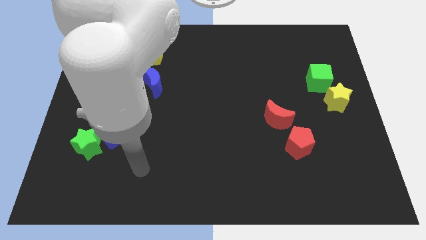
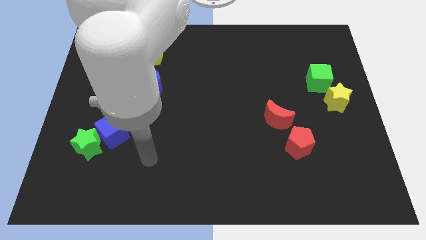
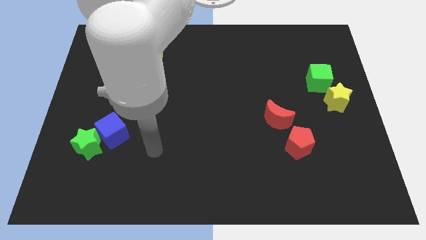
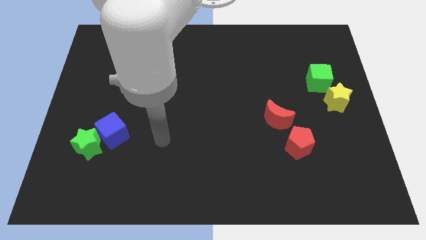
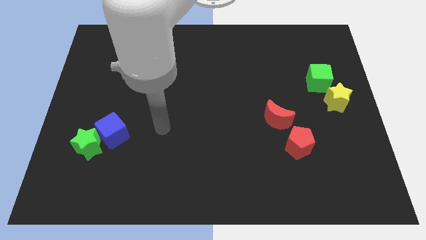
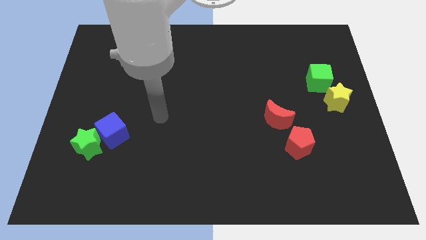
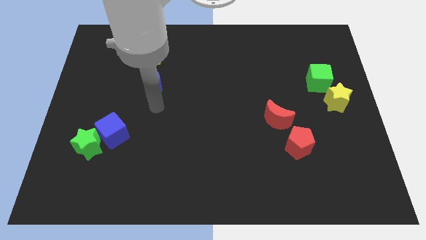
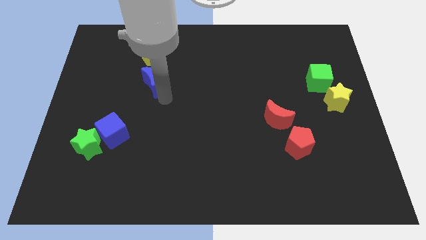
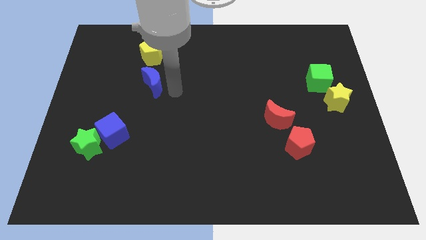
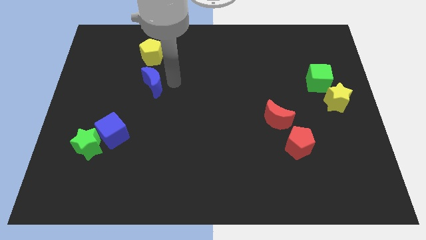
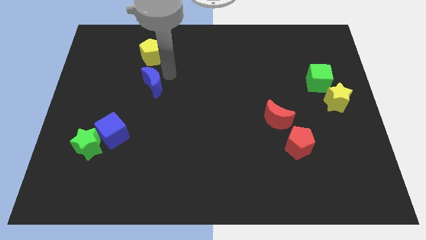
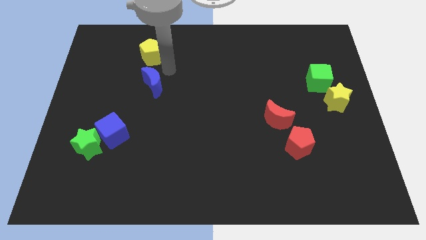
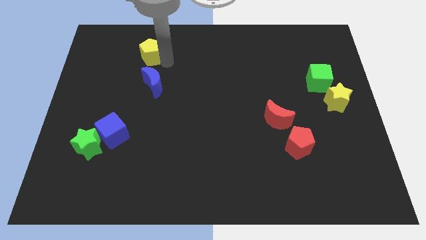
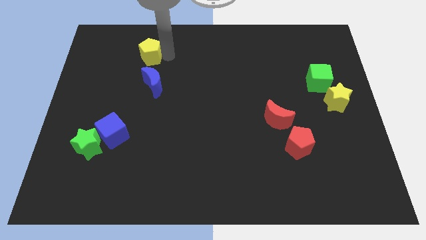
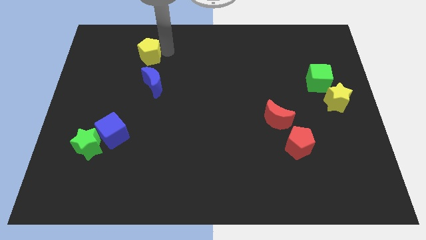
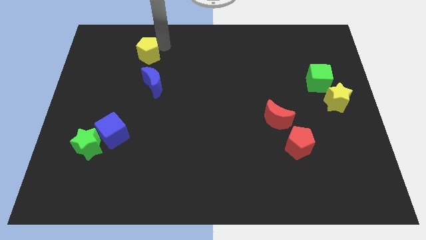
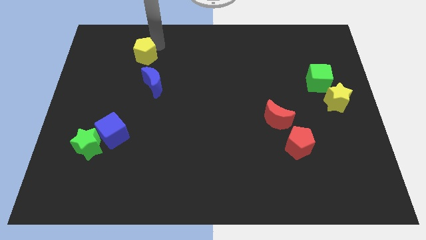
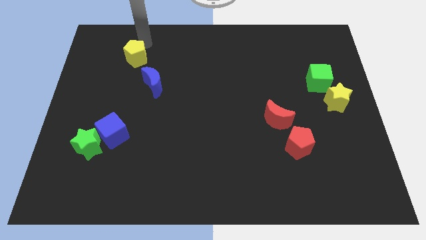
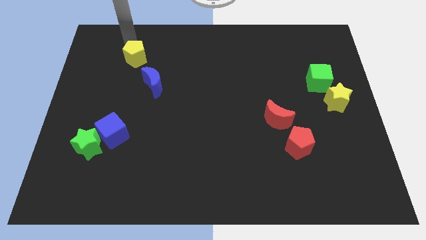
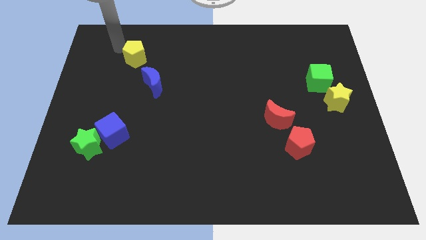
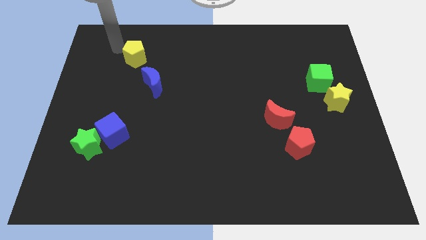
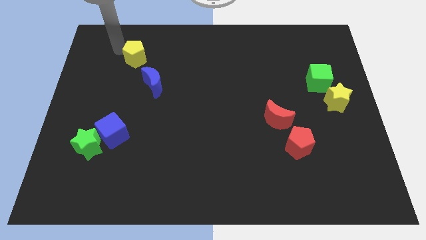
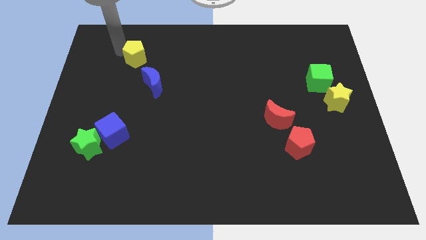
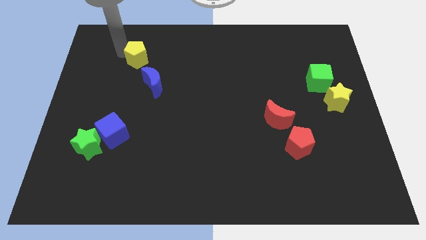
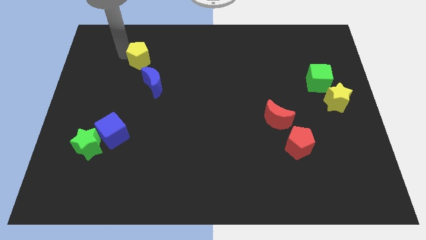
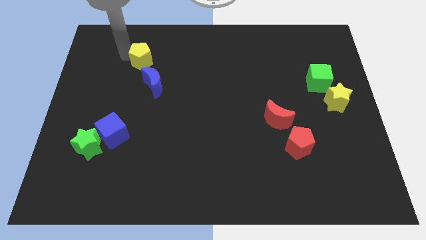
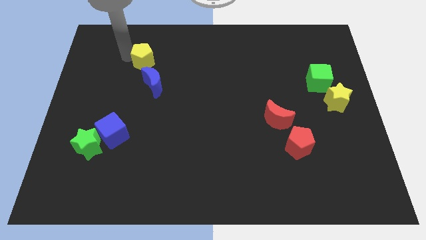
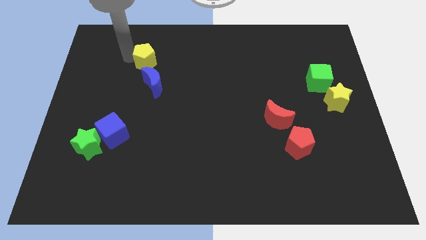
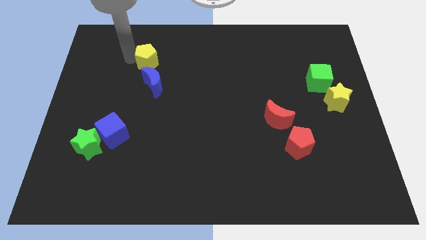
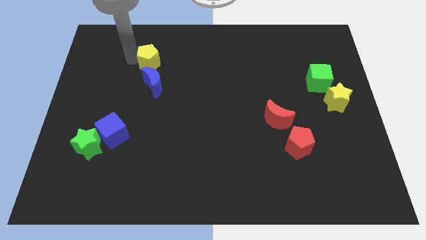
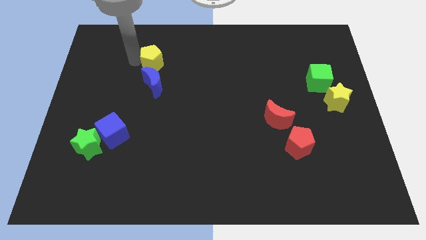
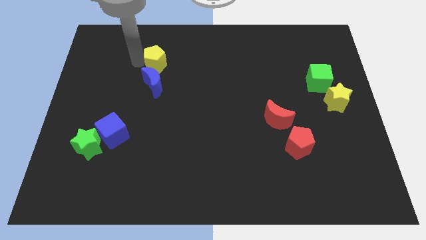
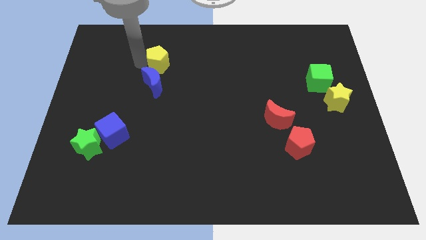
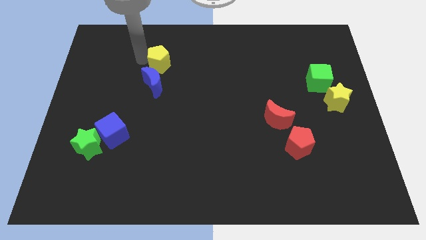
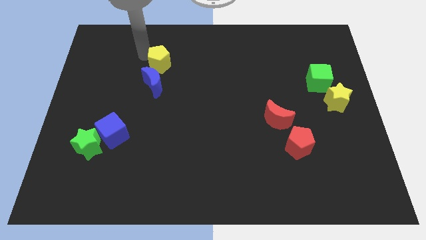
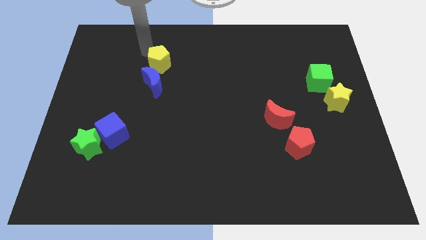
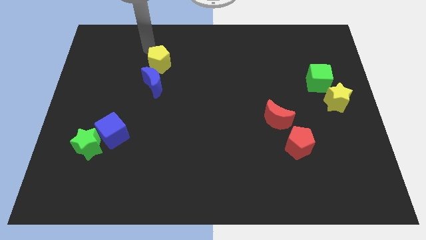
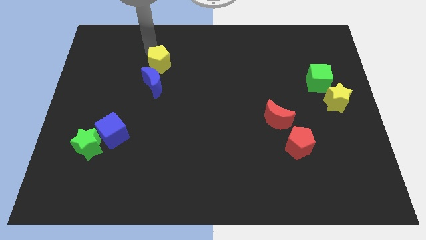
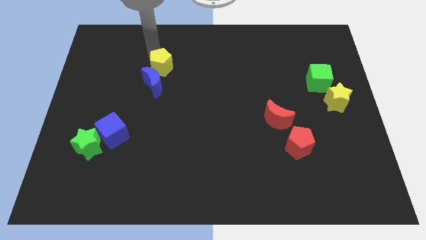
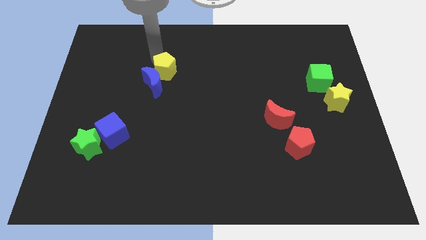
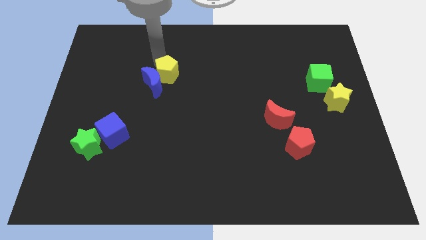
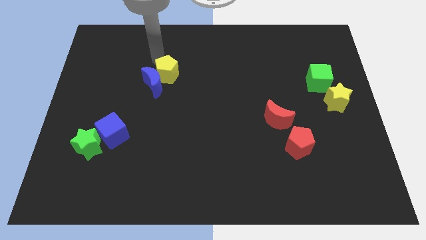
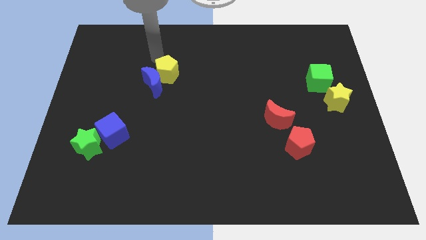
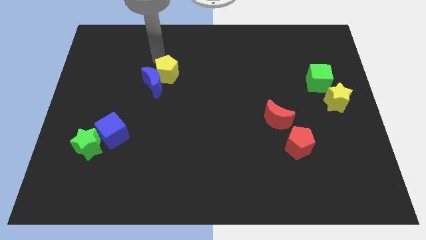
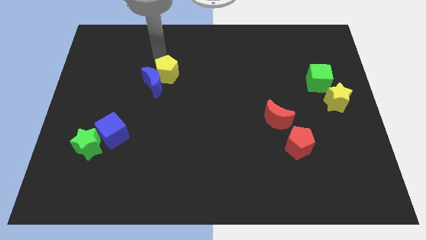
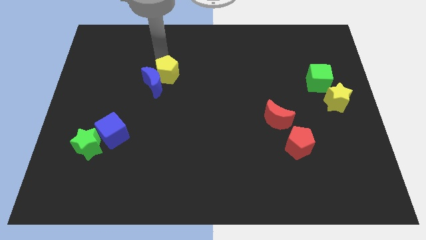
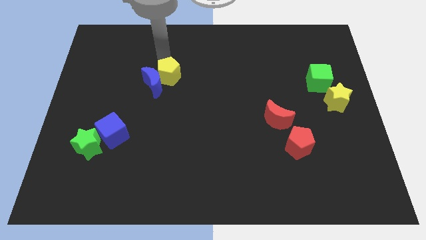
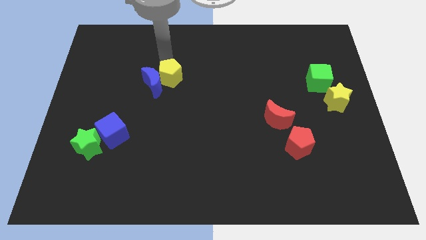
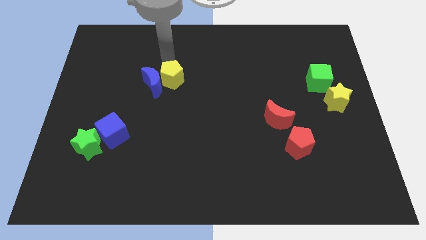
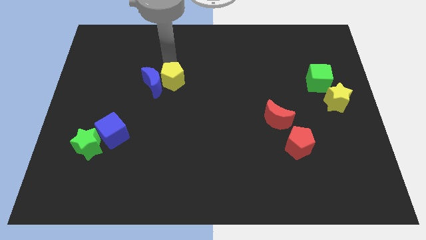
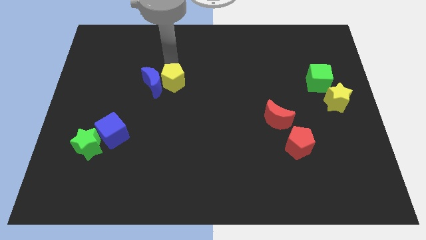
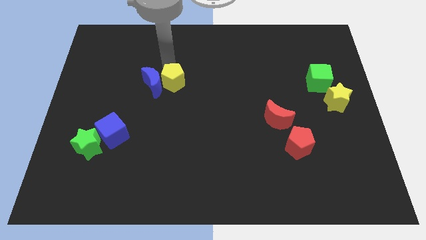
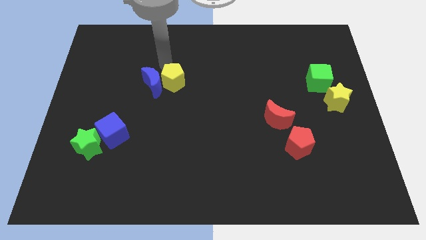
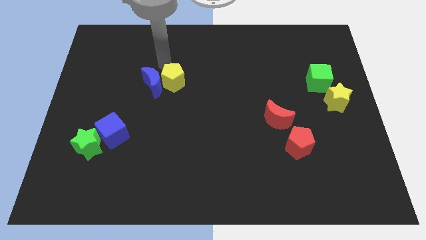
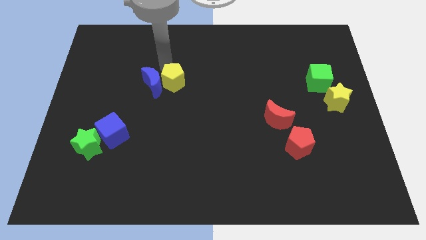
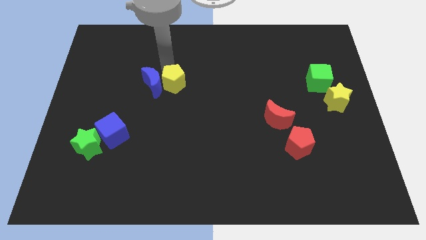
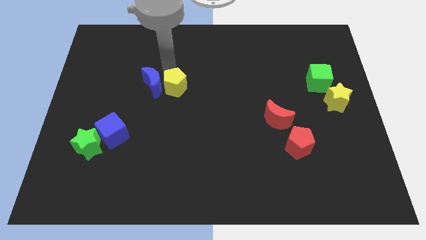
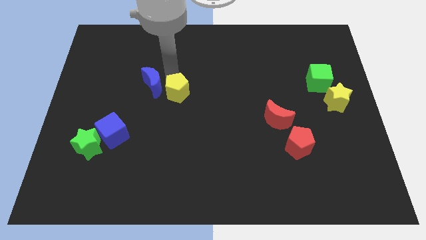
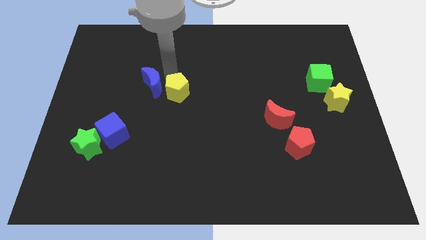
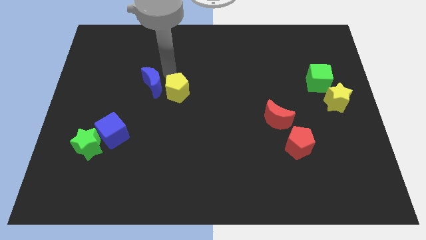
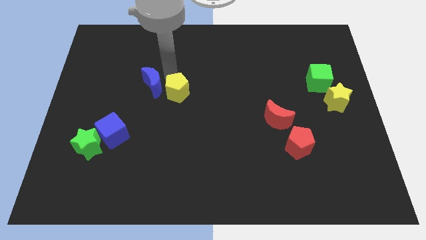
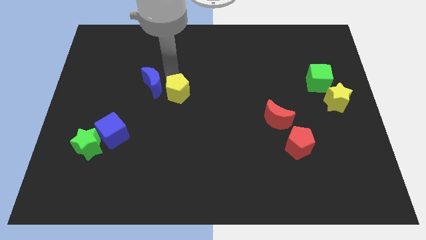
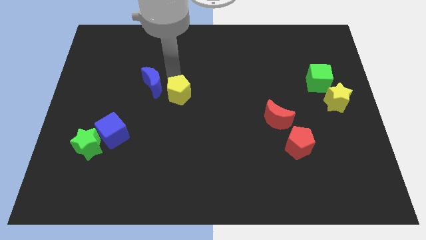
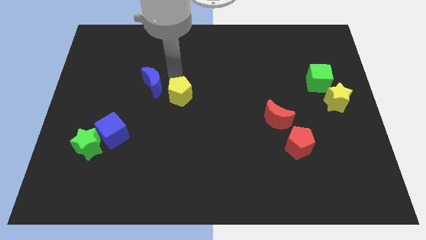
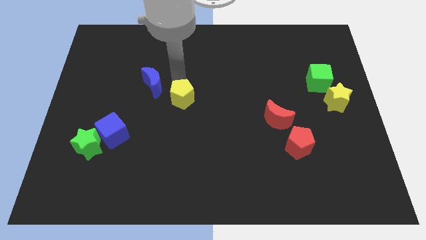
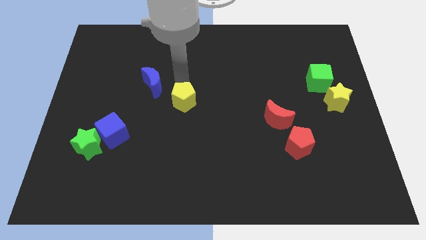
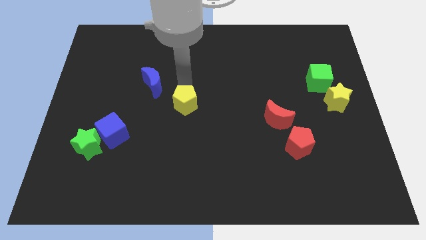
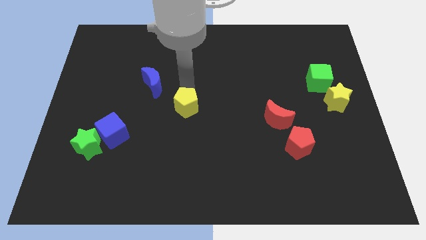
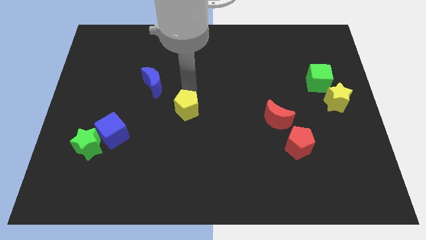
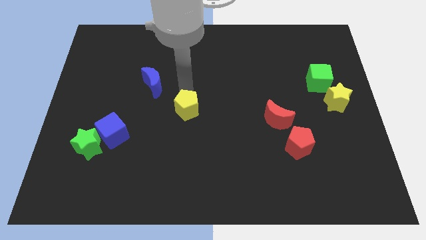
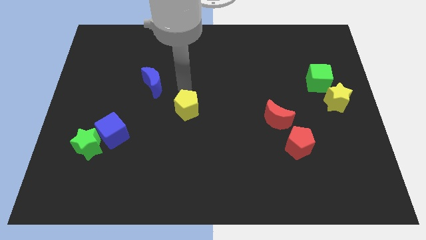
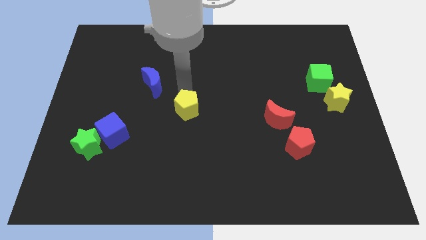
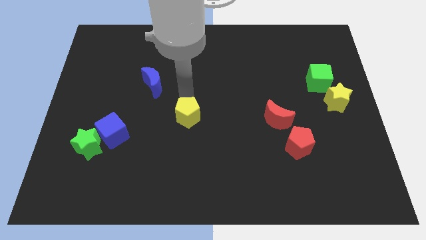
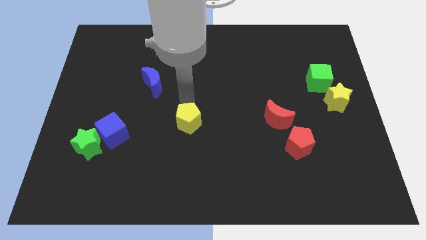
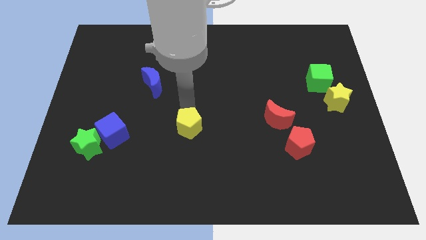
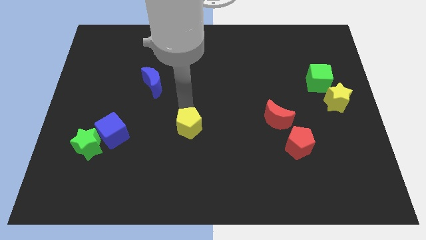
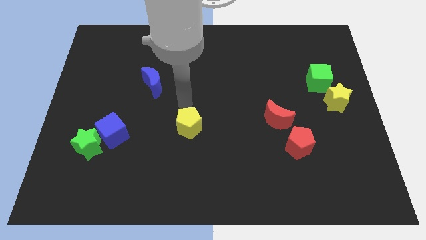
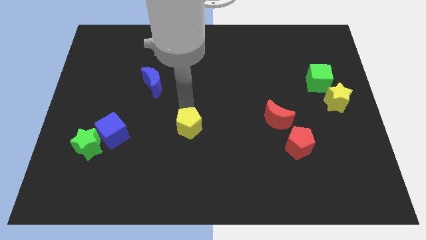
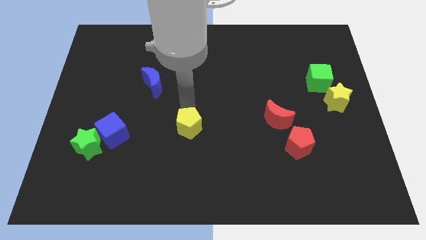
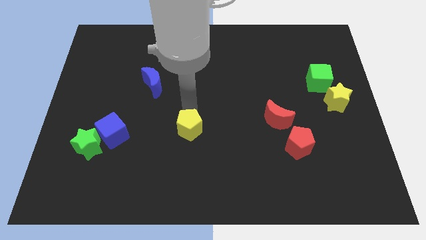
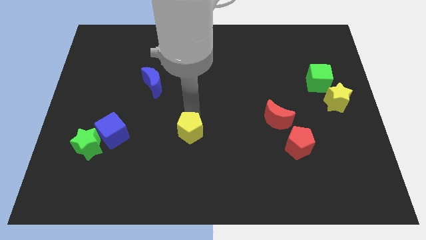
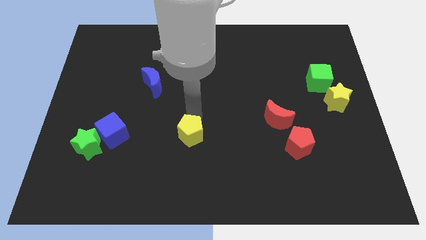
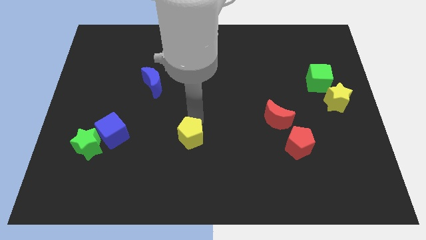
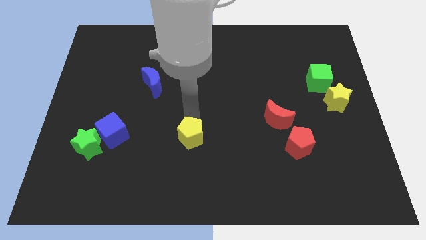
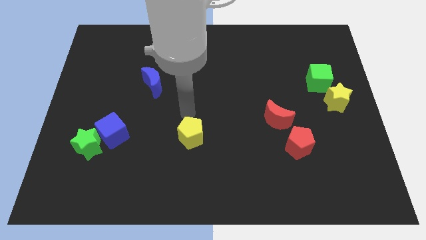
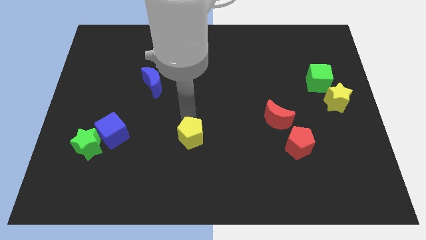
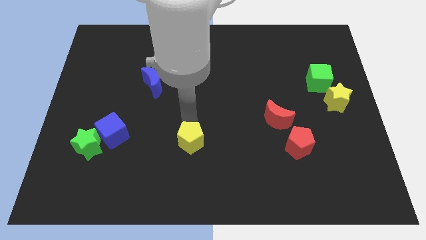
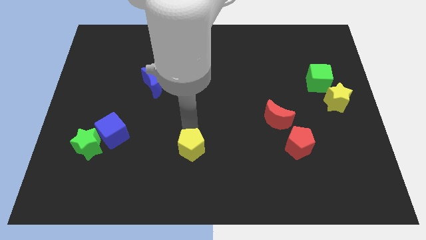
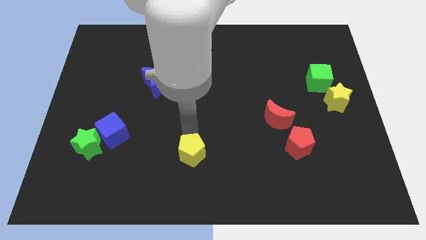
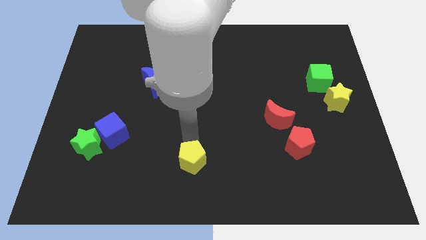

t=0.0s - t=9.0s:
slide the yellow pentagon to the bottom
